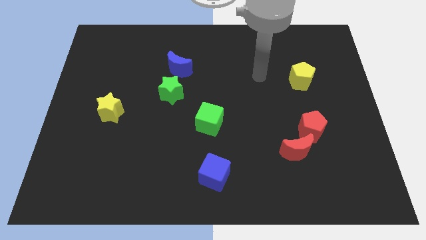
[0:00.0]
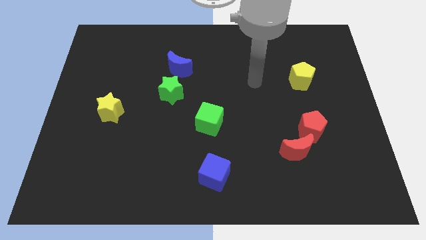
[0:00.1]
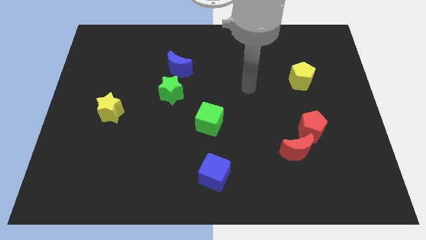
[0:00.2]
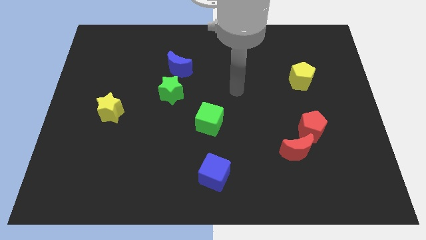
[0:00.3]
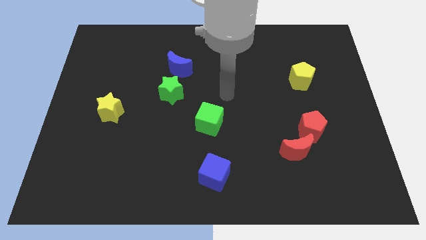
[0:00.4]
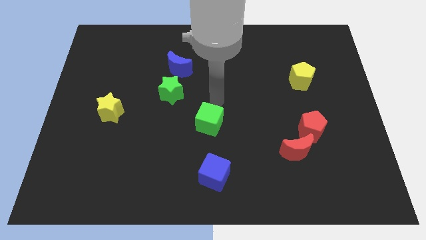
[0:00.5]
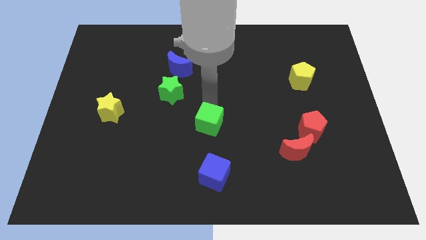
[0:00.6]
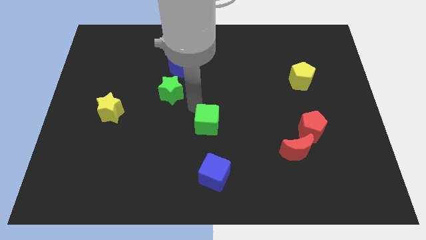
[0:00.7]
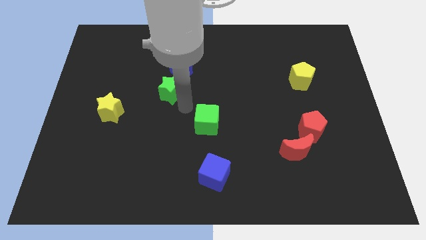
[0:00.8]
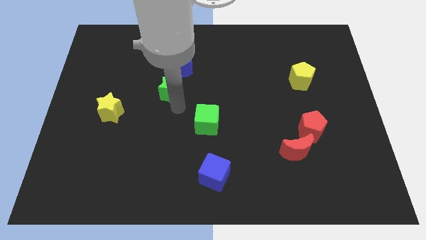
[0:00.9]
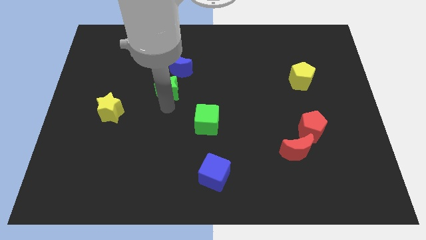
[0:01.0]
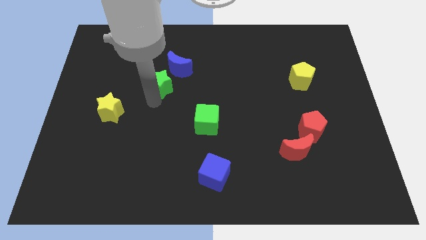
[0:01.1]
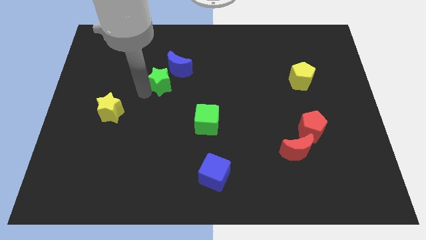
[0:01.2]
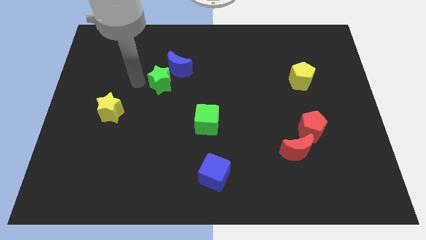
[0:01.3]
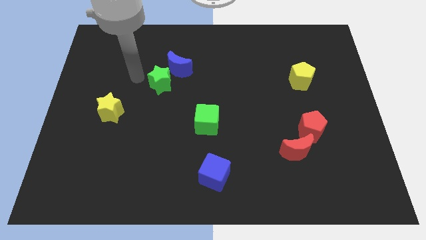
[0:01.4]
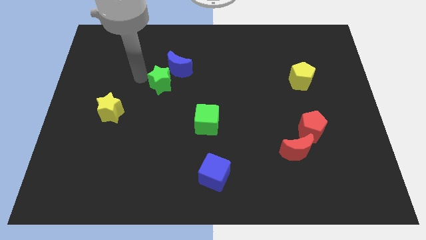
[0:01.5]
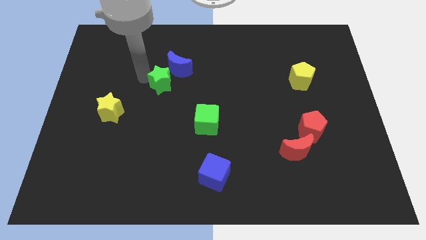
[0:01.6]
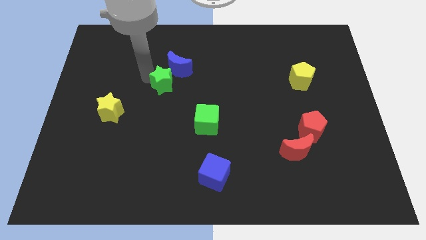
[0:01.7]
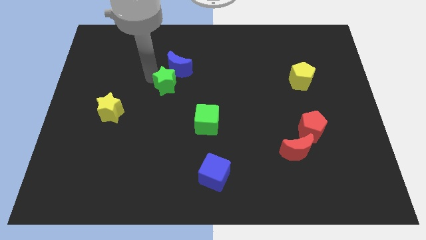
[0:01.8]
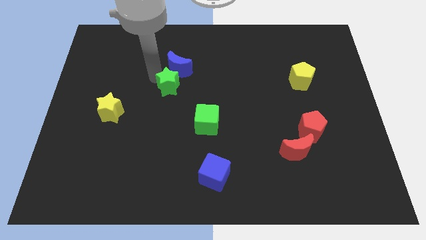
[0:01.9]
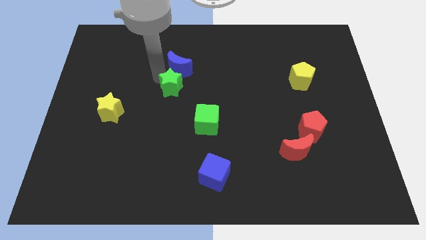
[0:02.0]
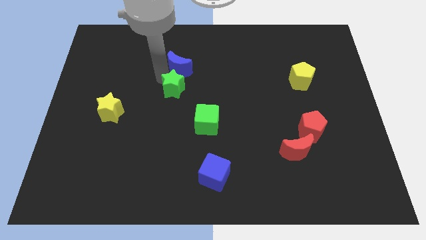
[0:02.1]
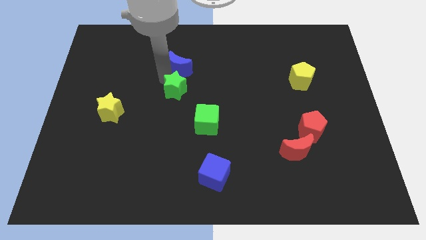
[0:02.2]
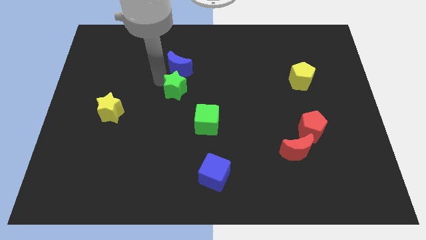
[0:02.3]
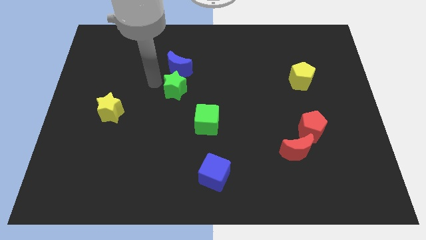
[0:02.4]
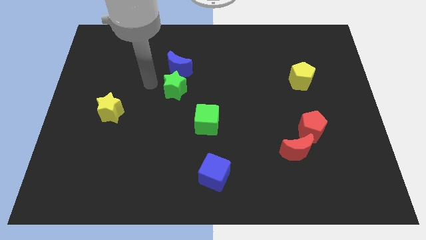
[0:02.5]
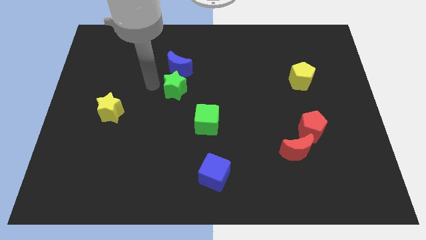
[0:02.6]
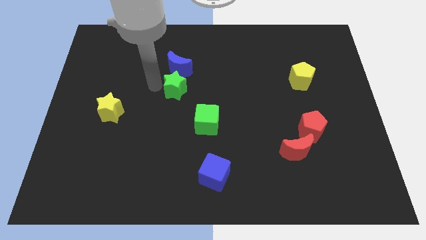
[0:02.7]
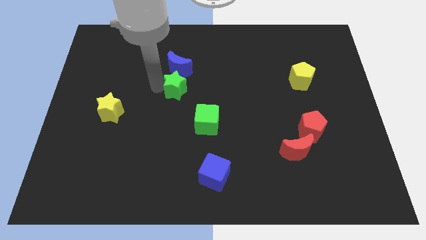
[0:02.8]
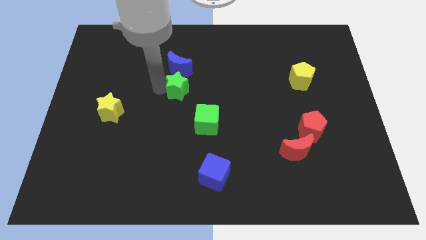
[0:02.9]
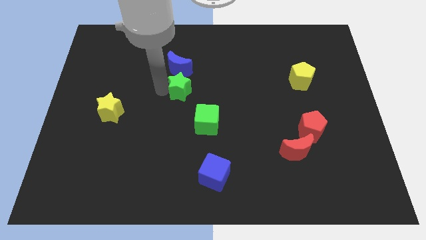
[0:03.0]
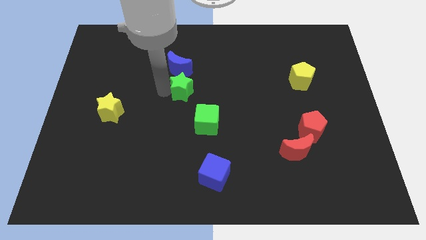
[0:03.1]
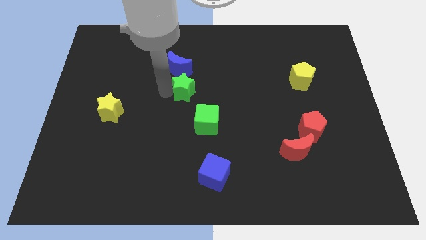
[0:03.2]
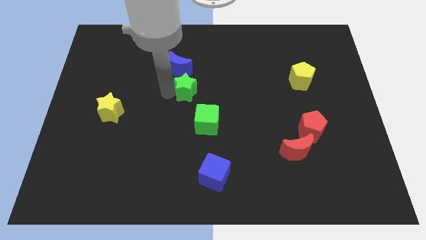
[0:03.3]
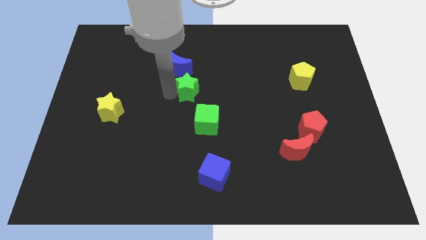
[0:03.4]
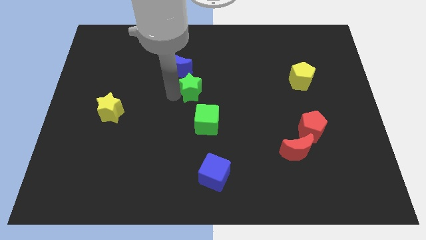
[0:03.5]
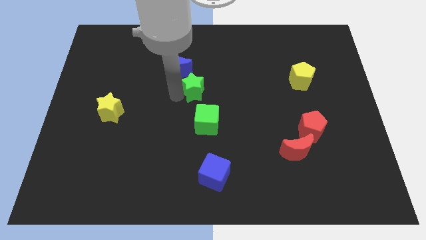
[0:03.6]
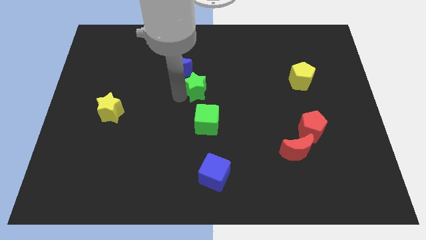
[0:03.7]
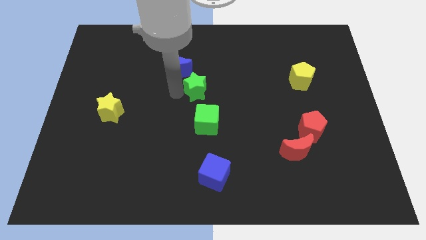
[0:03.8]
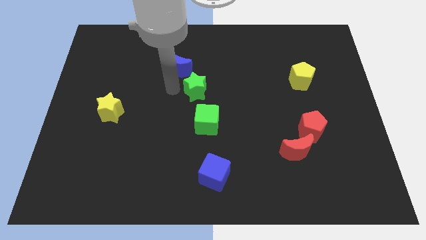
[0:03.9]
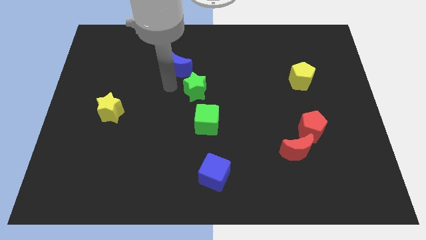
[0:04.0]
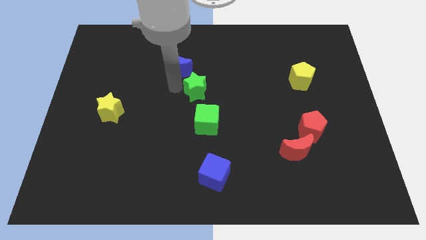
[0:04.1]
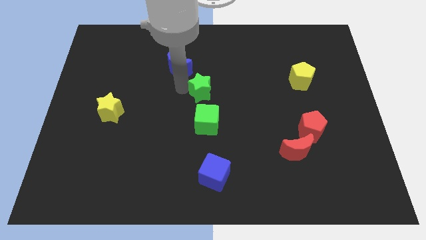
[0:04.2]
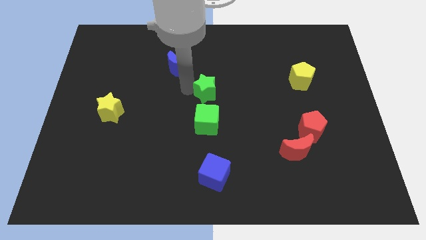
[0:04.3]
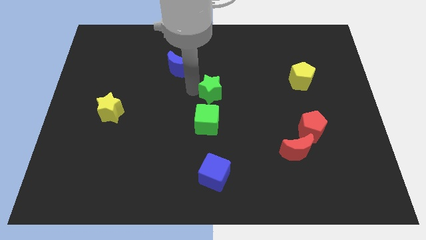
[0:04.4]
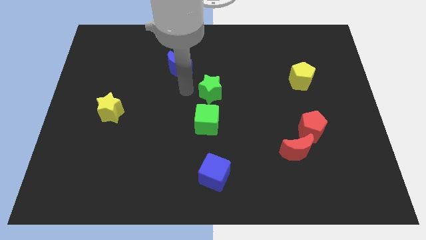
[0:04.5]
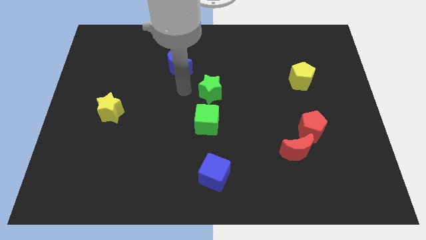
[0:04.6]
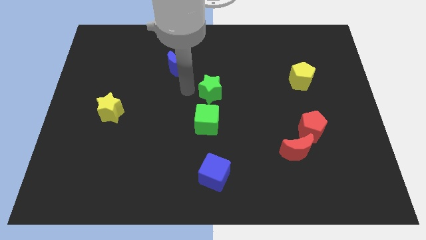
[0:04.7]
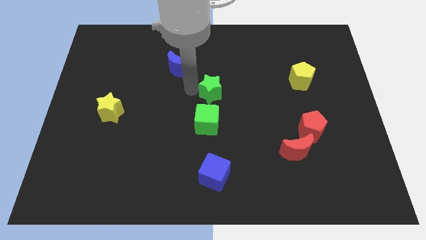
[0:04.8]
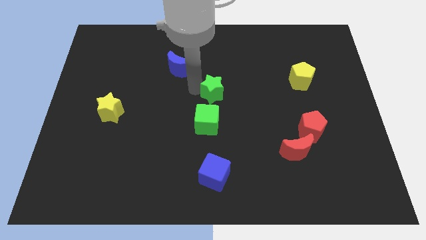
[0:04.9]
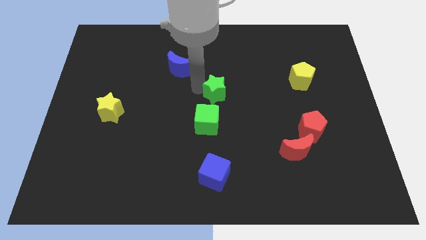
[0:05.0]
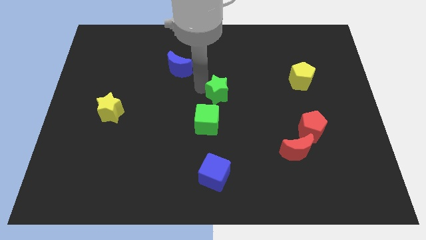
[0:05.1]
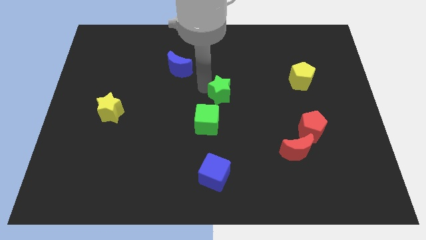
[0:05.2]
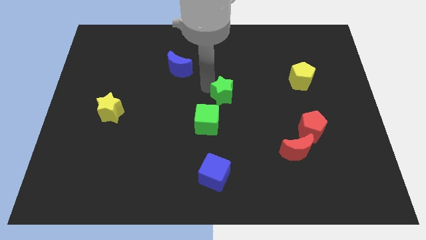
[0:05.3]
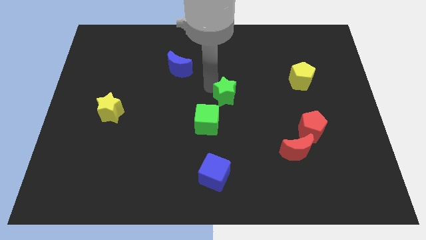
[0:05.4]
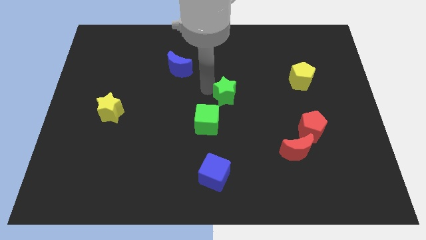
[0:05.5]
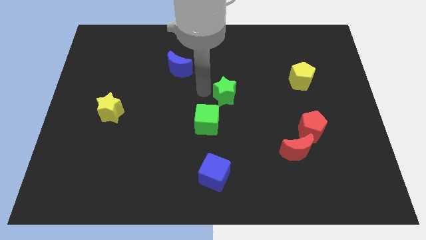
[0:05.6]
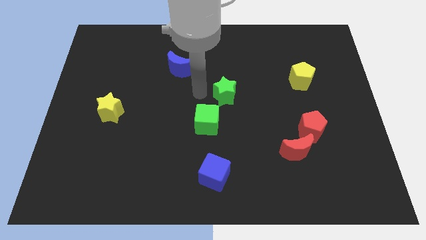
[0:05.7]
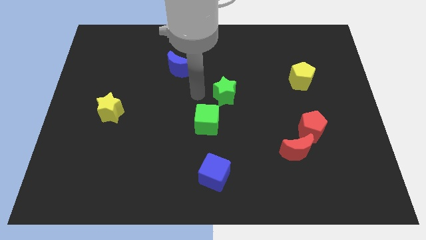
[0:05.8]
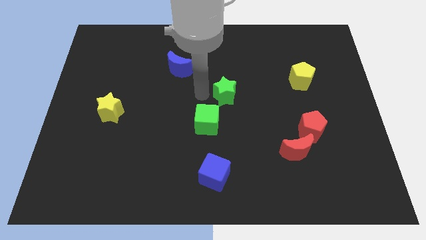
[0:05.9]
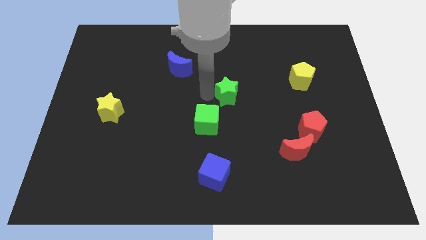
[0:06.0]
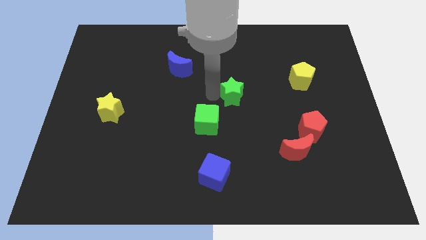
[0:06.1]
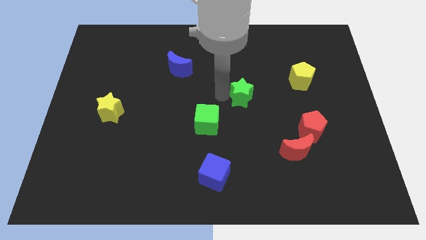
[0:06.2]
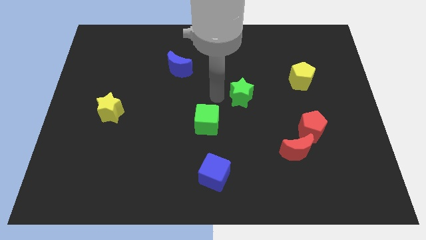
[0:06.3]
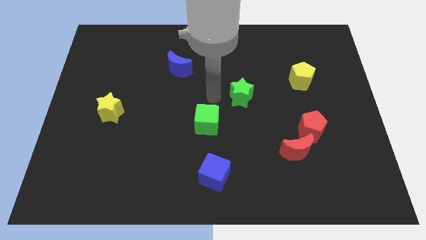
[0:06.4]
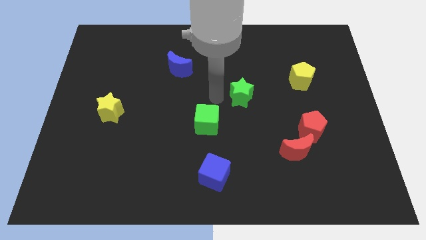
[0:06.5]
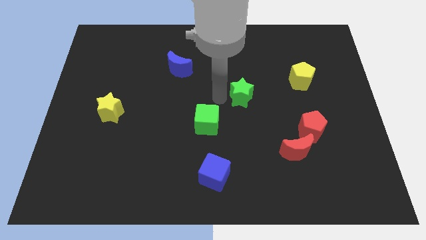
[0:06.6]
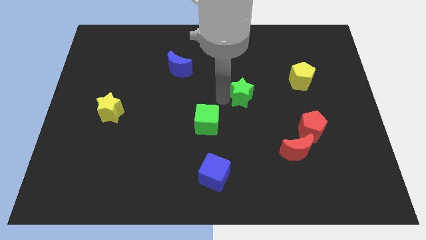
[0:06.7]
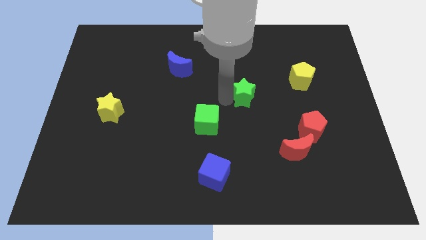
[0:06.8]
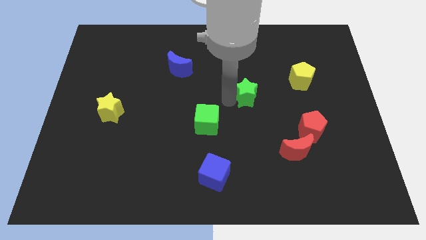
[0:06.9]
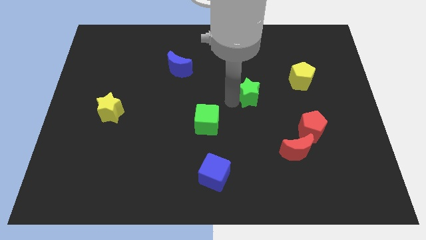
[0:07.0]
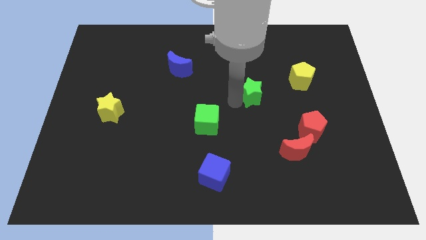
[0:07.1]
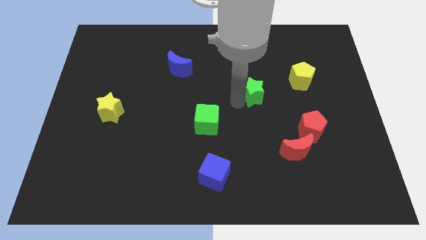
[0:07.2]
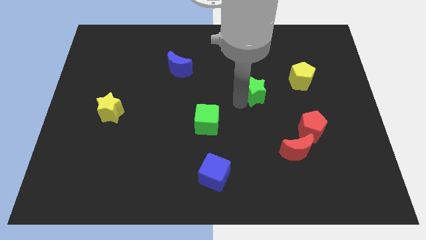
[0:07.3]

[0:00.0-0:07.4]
move the green star to the right

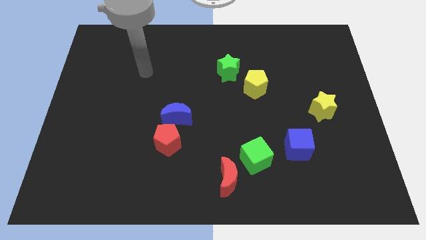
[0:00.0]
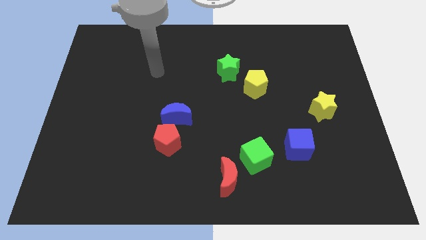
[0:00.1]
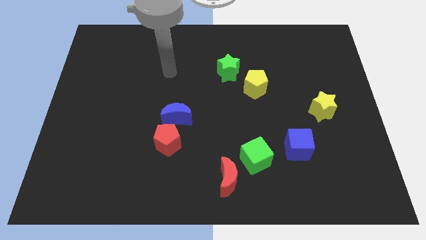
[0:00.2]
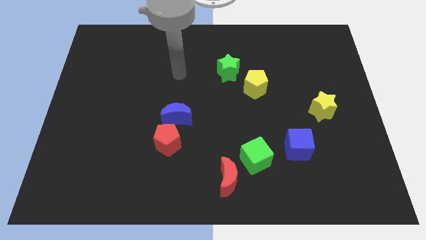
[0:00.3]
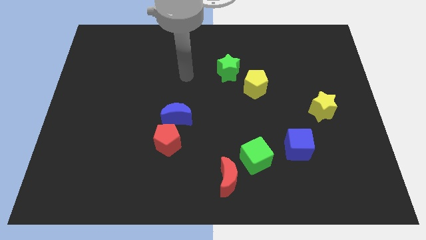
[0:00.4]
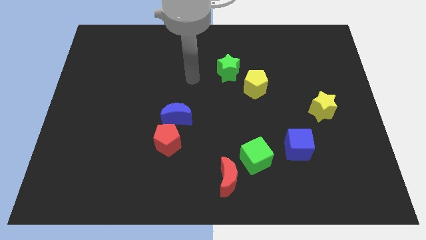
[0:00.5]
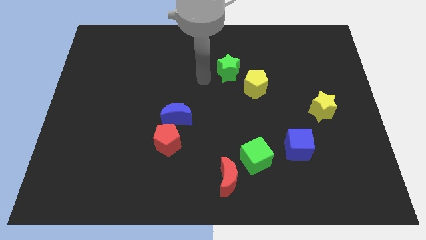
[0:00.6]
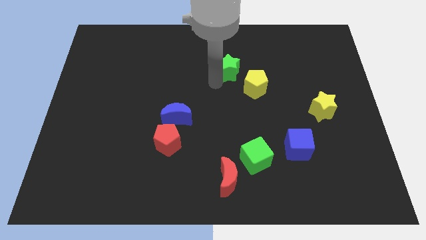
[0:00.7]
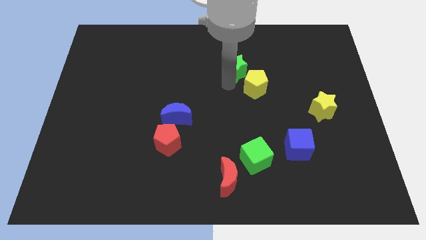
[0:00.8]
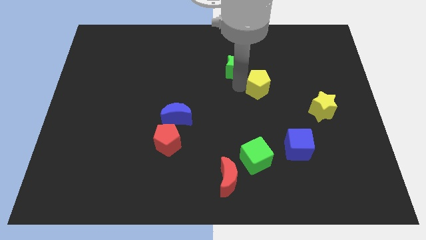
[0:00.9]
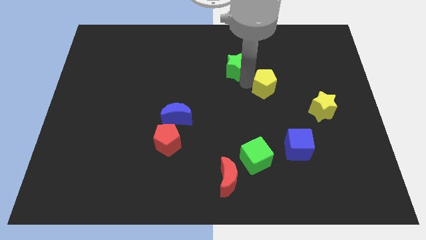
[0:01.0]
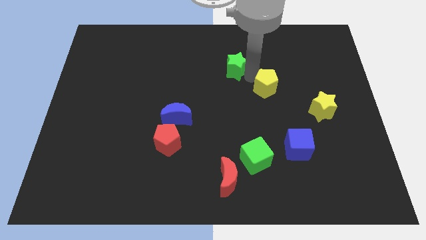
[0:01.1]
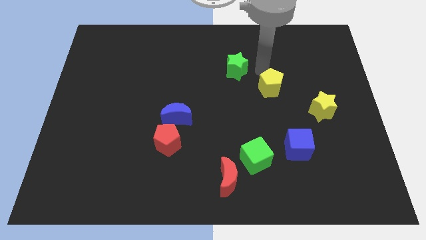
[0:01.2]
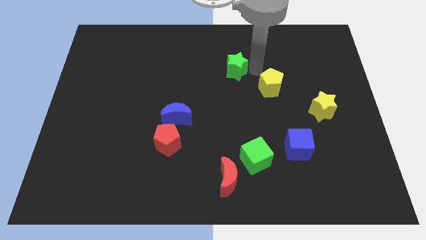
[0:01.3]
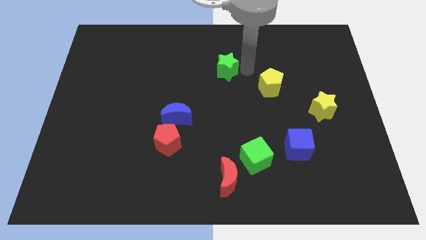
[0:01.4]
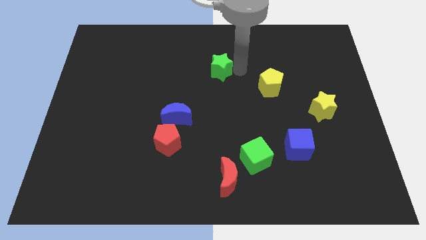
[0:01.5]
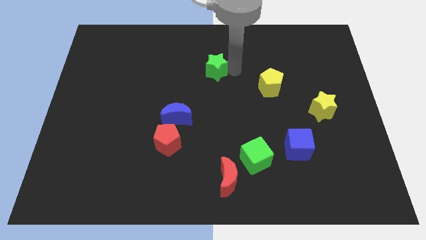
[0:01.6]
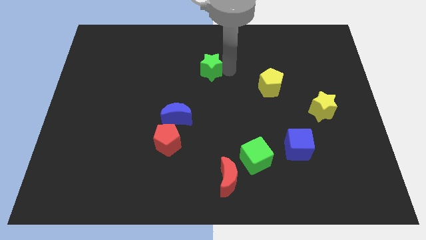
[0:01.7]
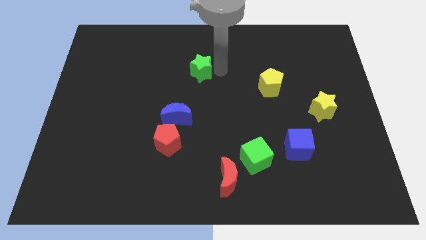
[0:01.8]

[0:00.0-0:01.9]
slide the green star to the left somewhat
